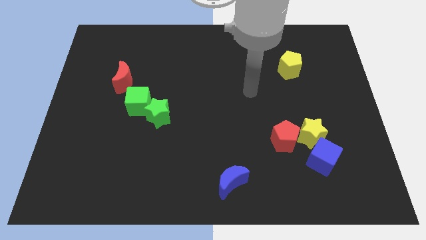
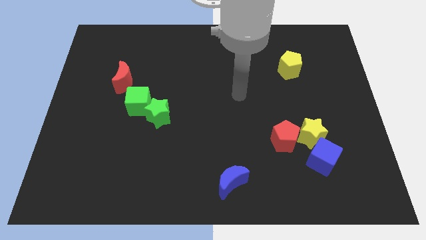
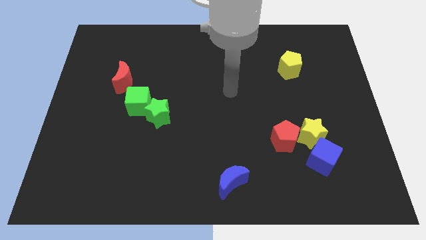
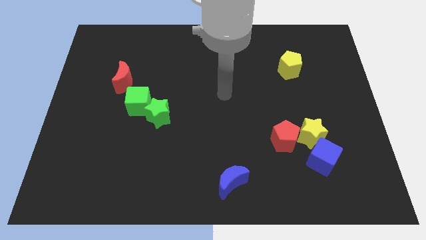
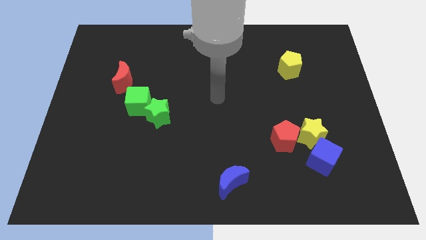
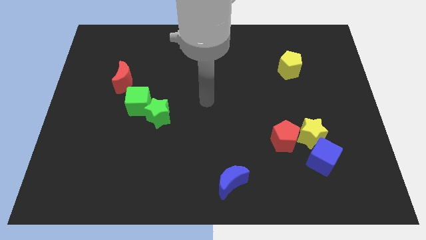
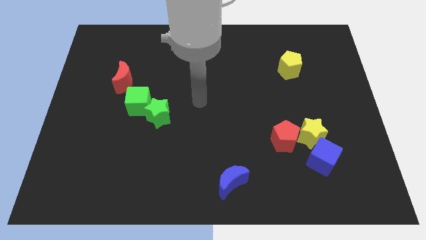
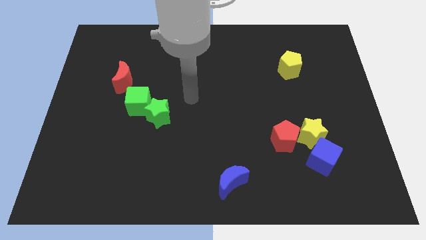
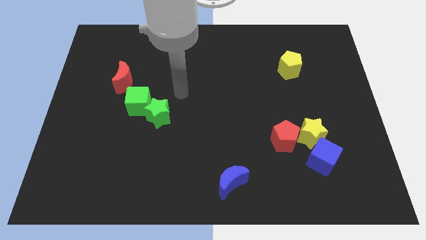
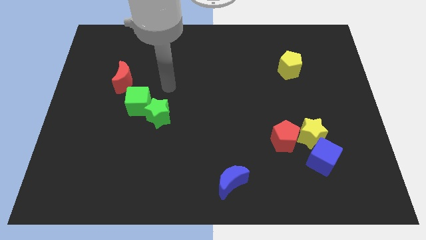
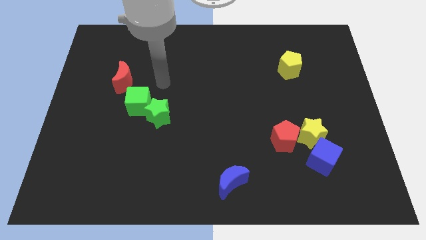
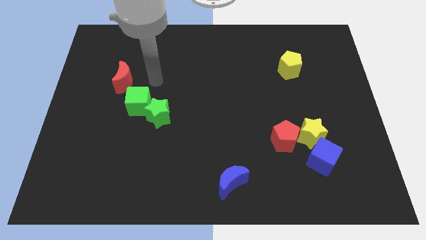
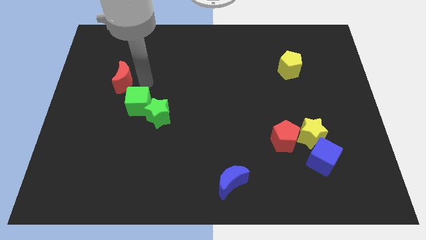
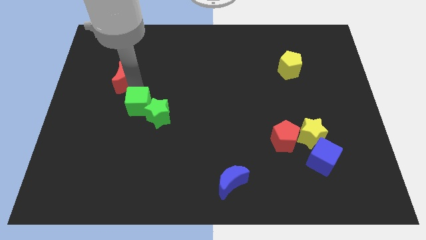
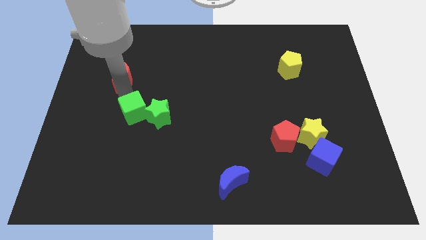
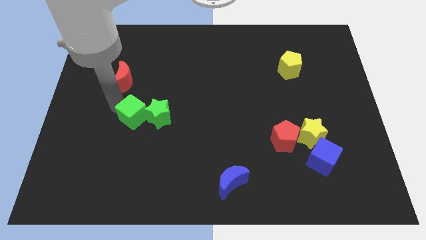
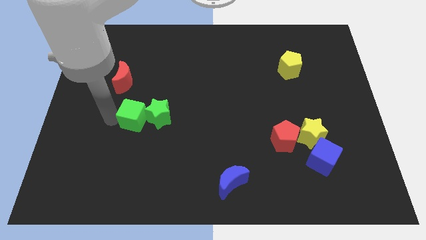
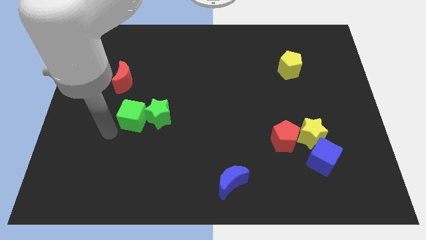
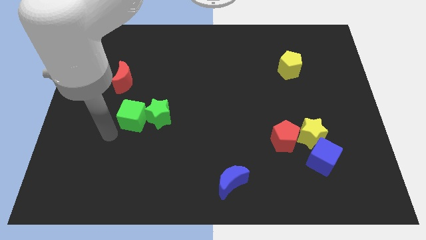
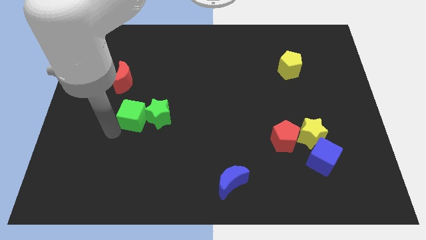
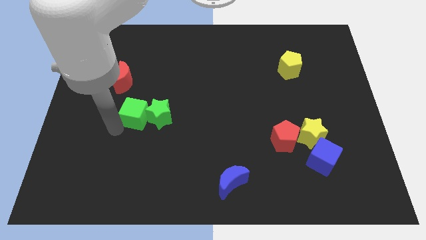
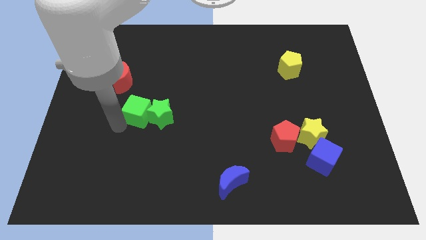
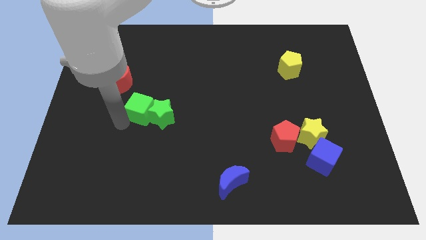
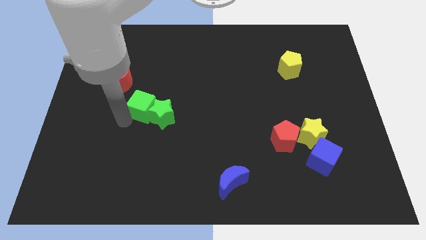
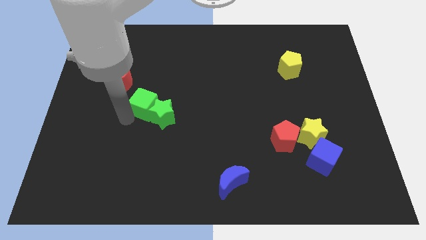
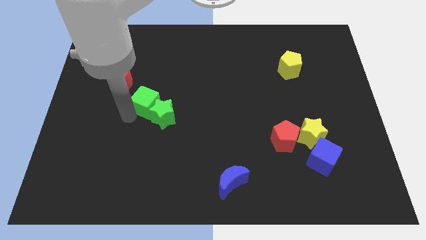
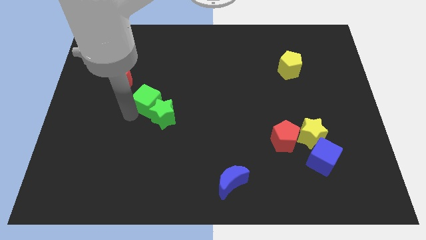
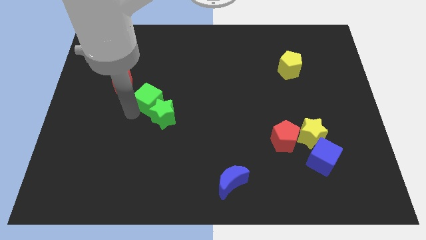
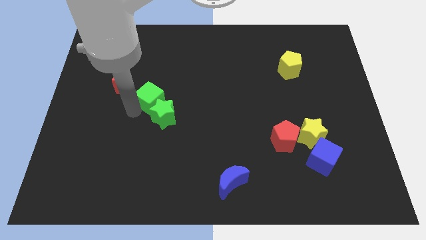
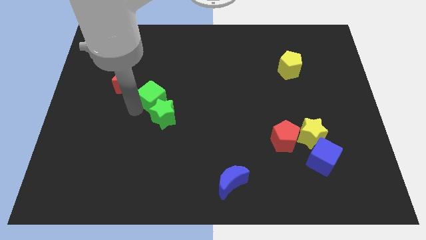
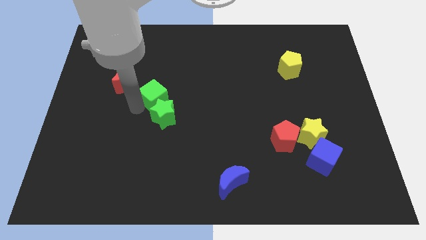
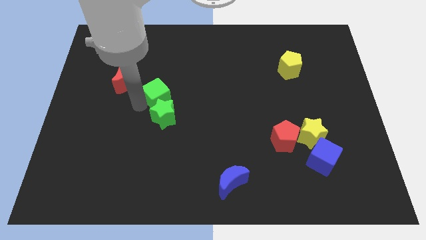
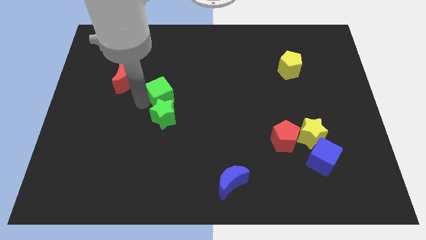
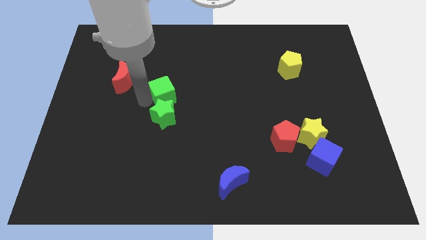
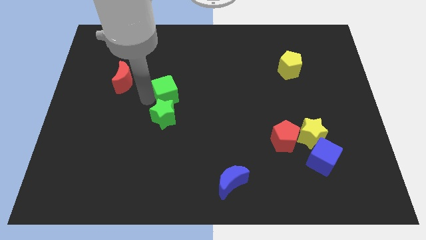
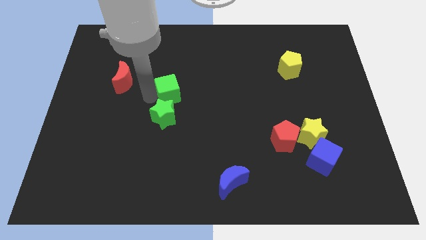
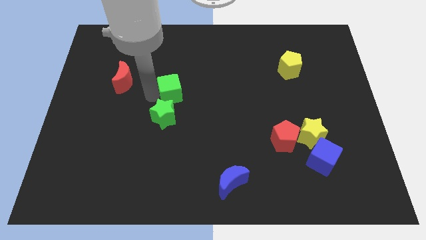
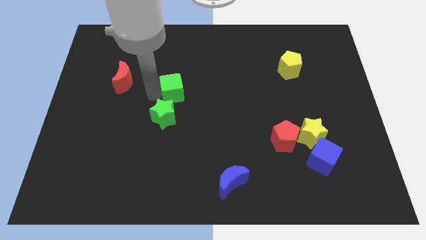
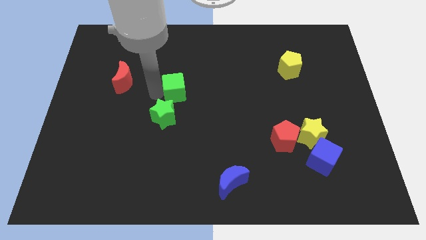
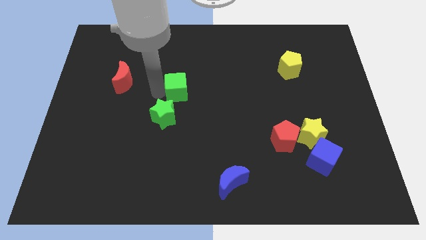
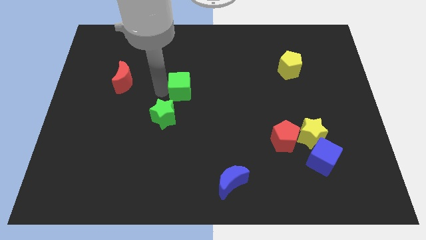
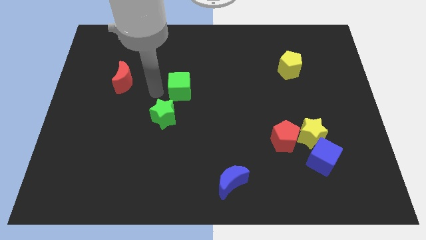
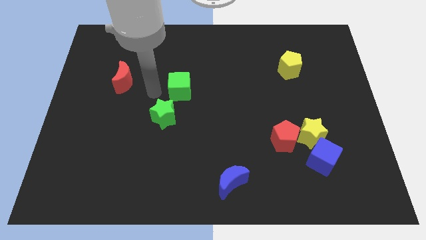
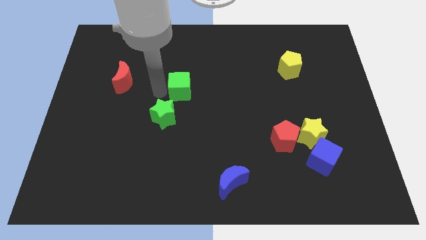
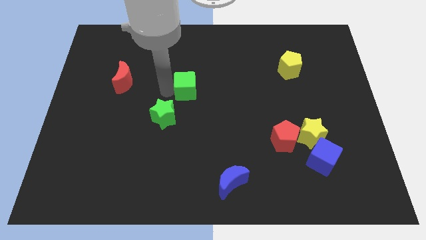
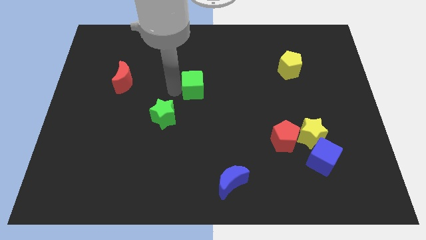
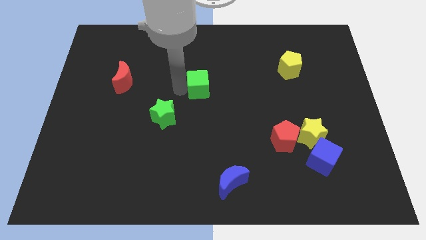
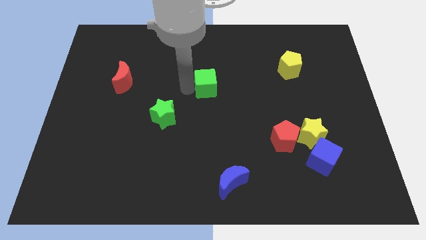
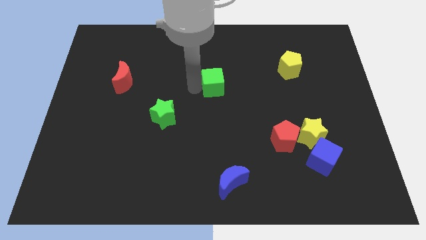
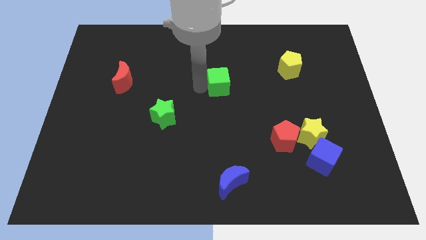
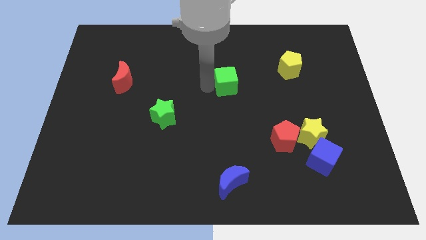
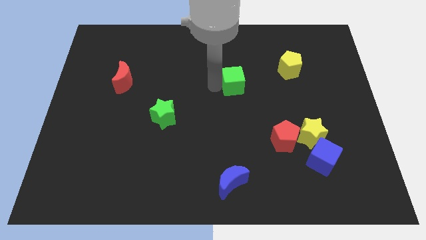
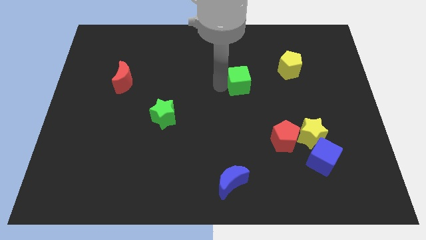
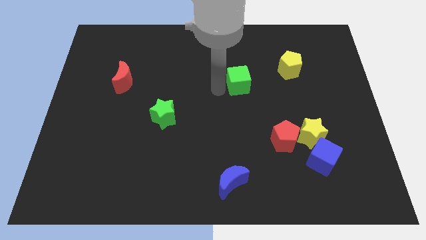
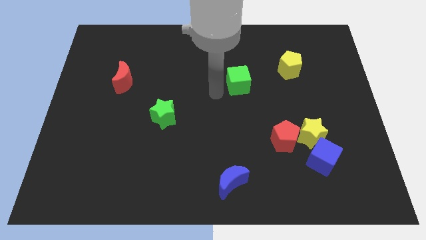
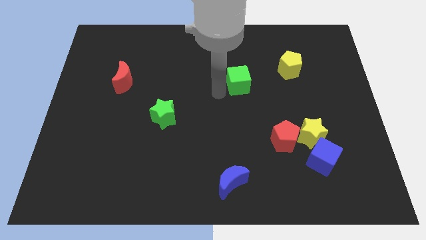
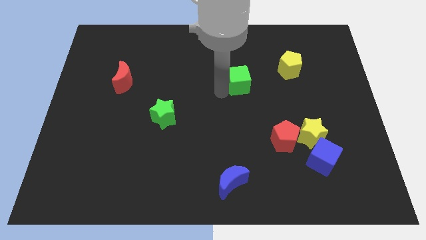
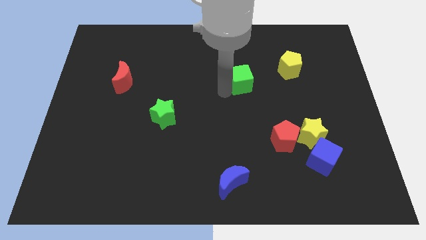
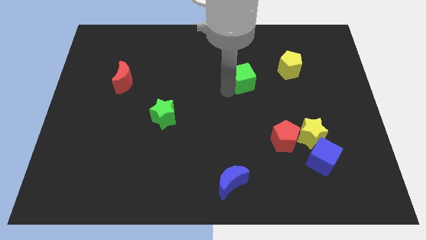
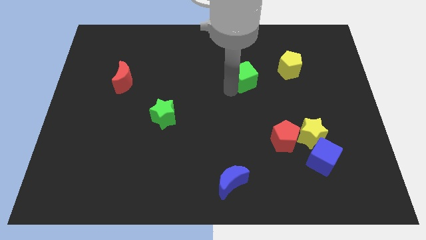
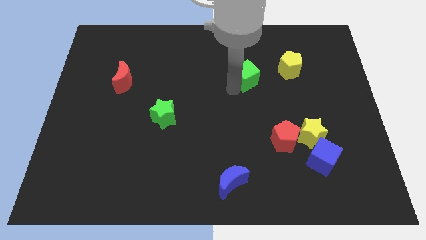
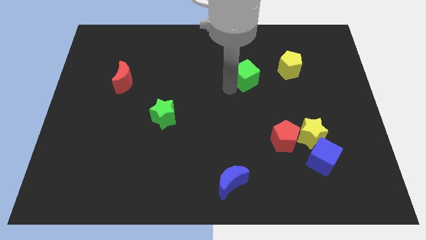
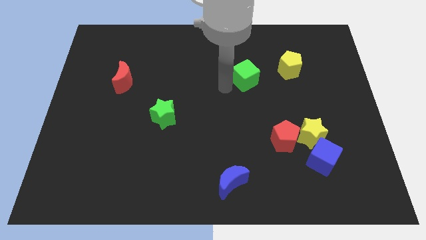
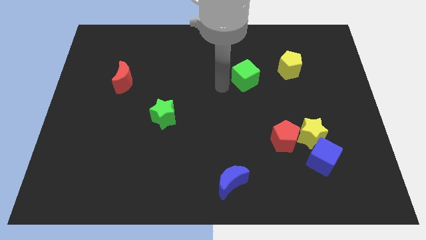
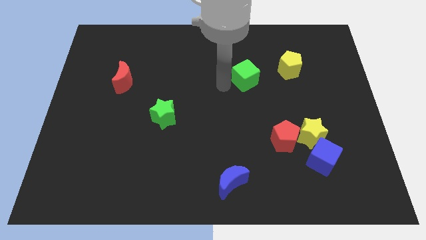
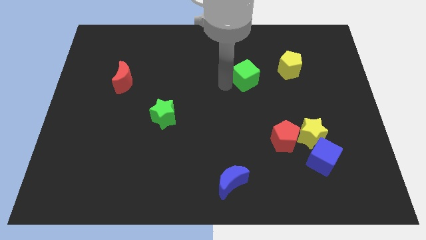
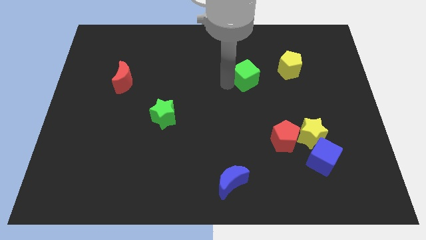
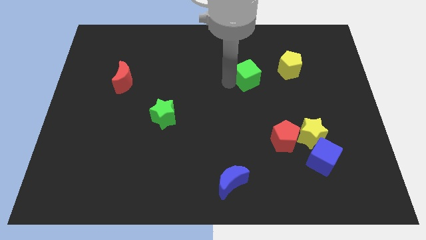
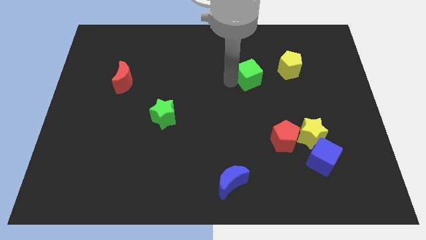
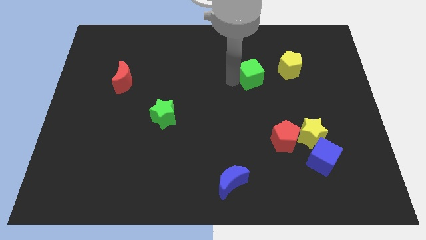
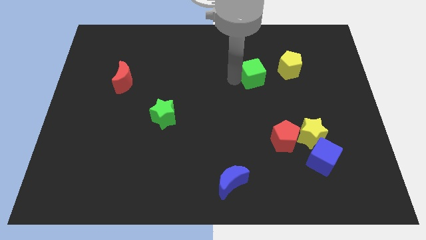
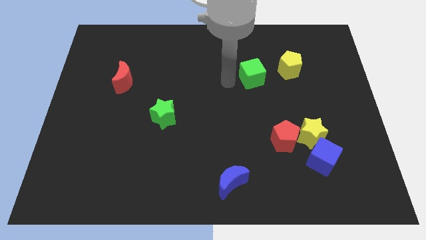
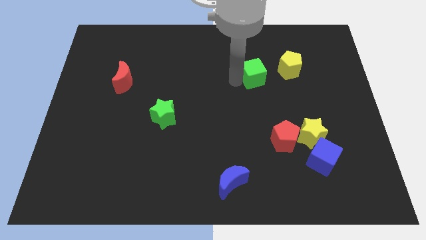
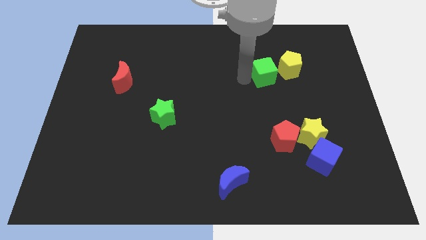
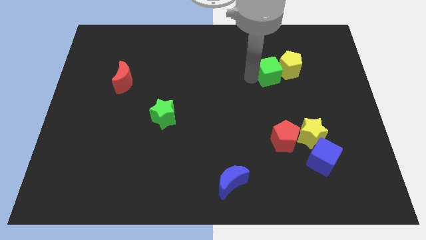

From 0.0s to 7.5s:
slide the green cube next to the yellow pentagon
